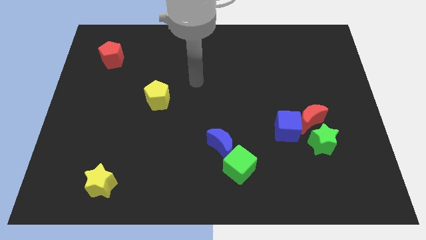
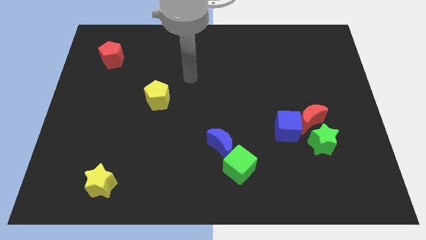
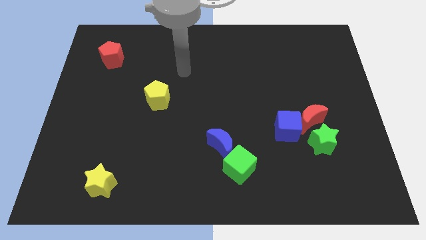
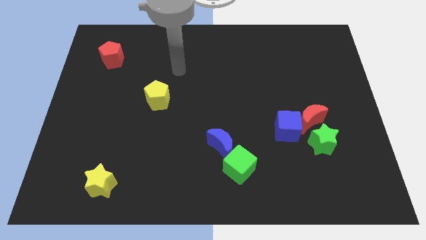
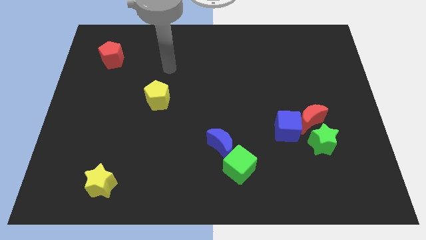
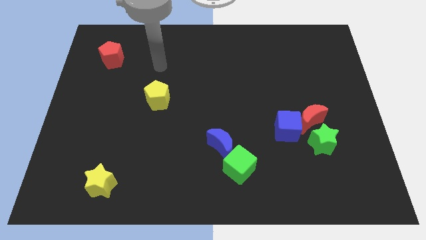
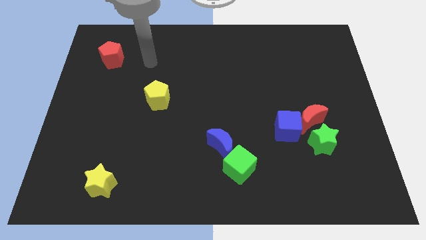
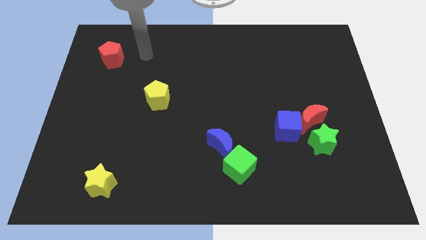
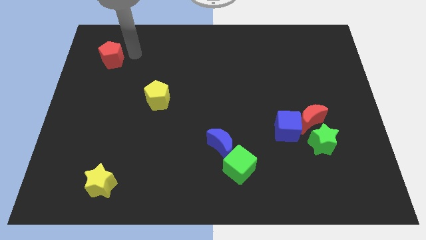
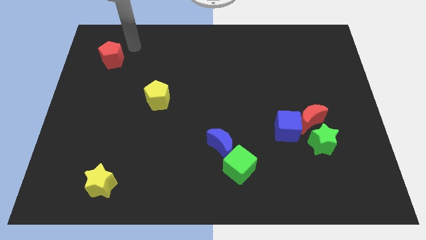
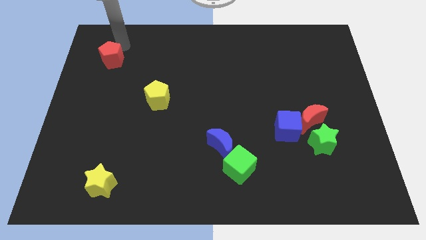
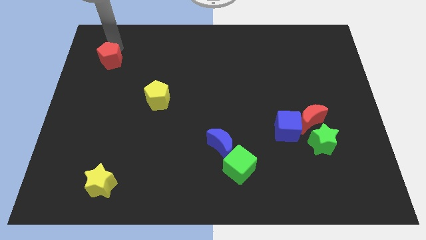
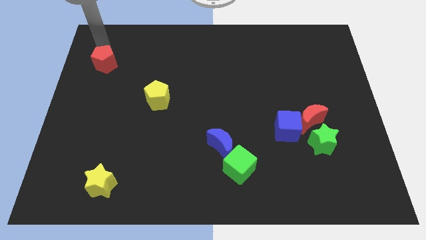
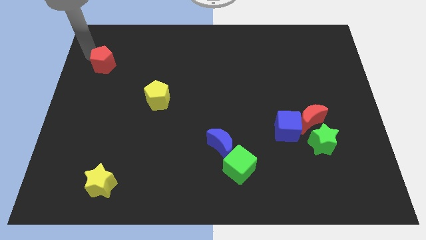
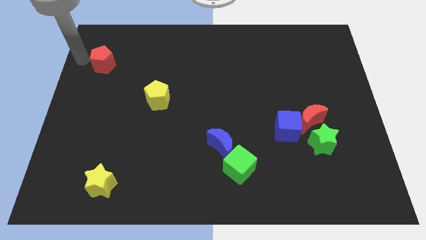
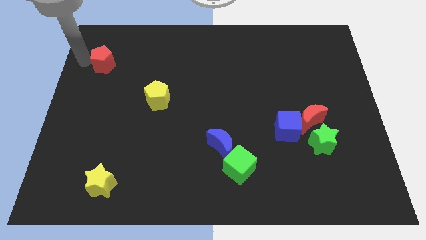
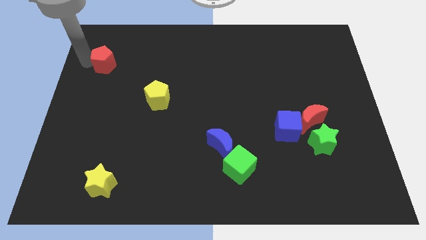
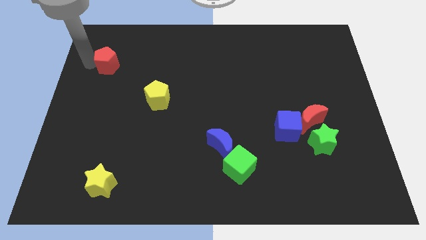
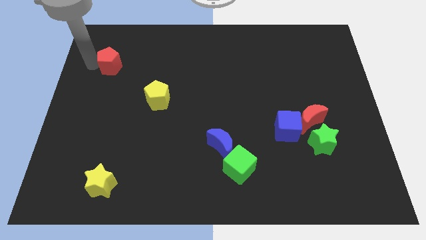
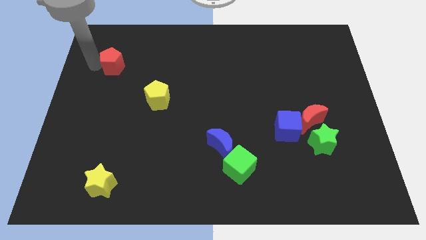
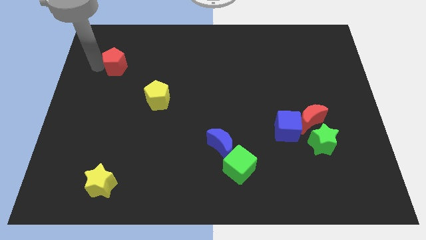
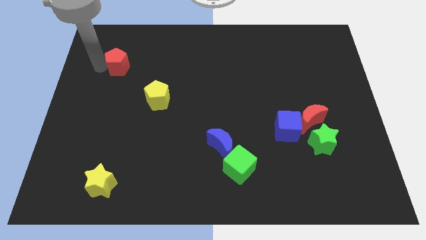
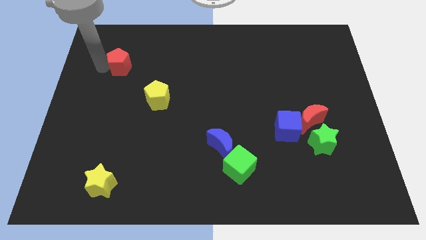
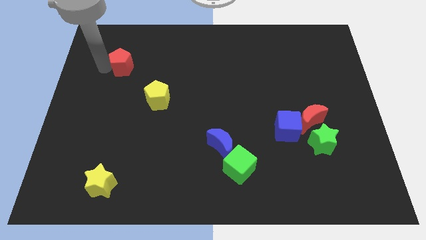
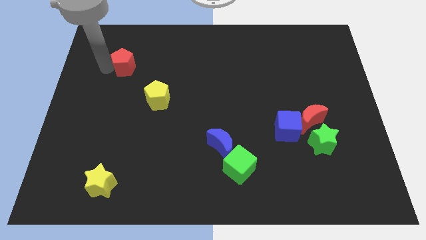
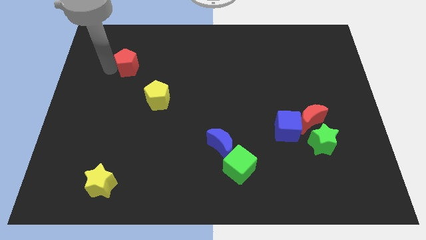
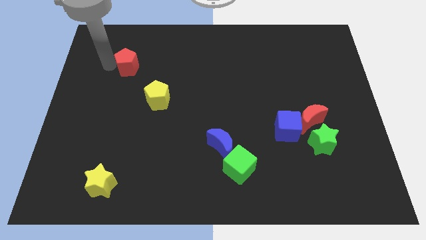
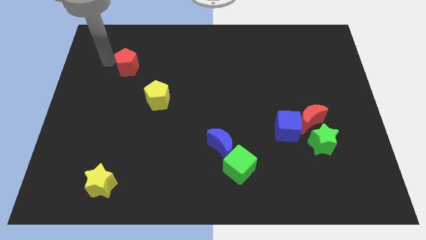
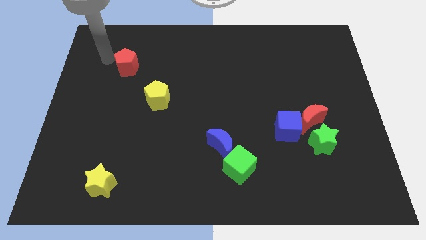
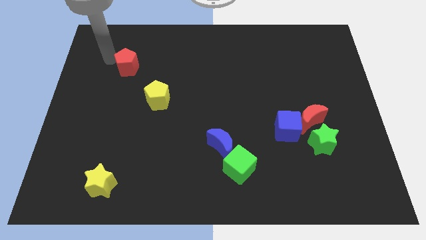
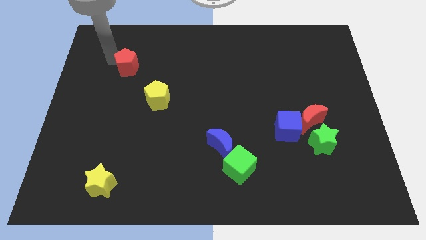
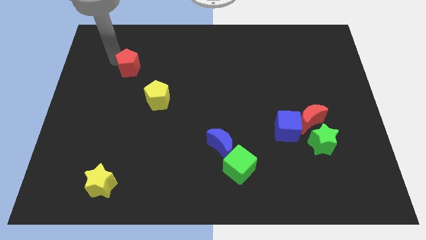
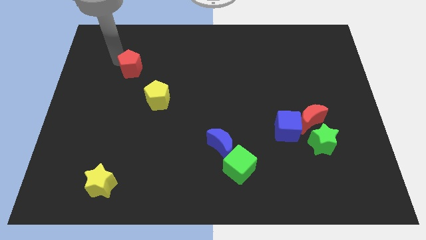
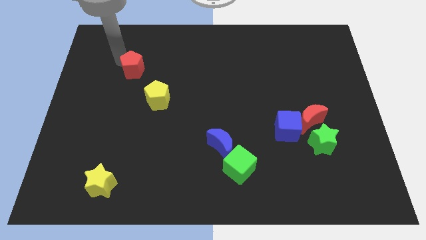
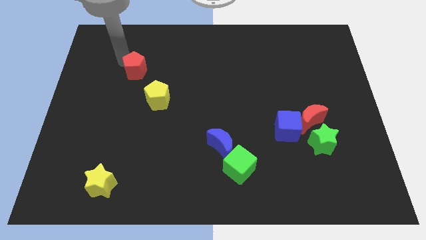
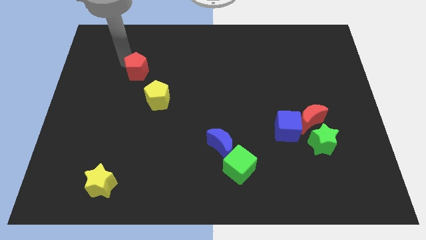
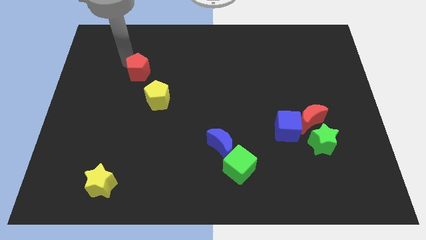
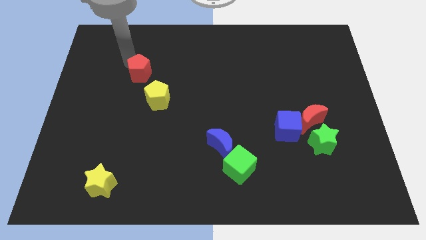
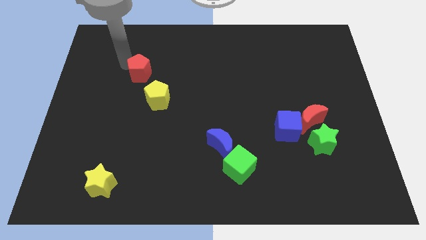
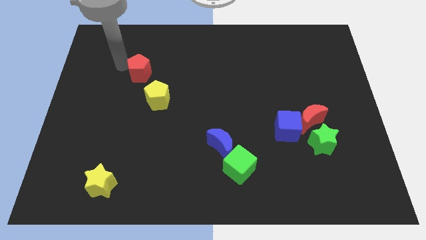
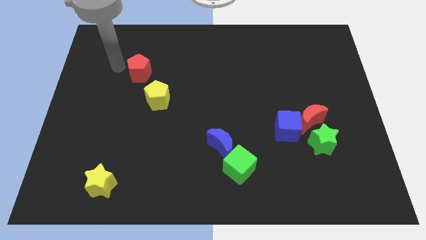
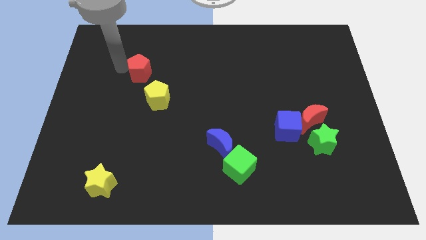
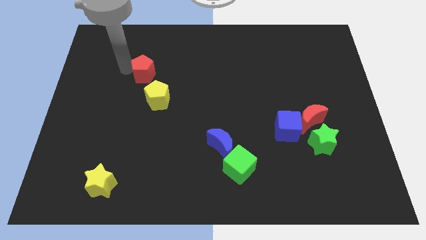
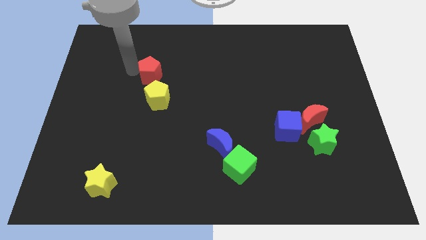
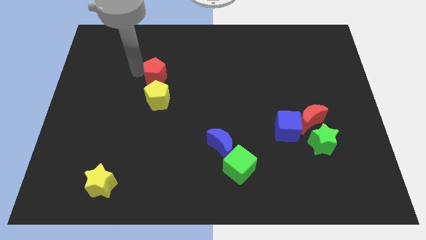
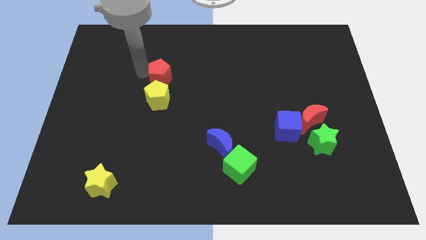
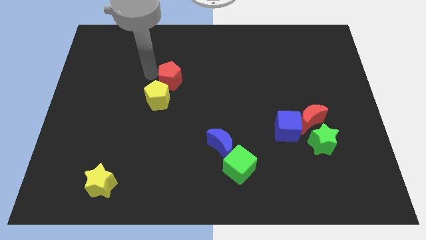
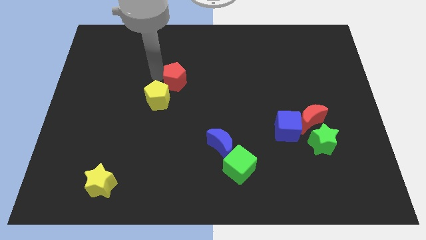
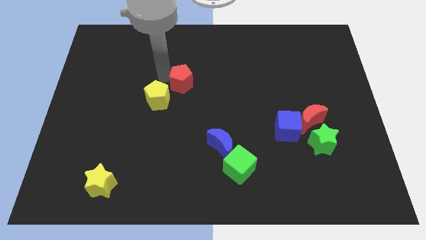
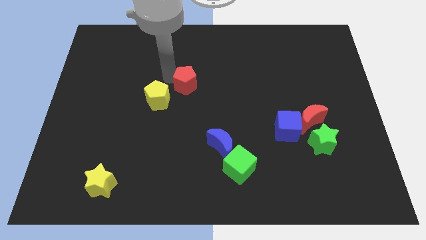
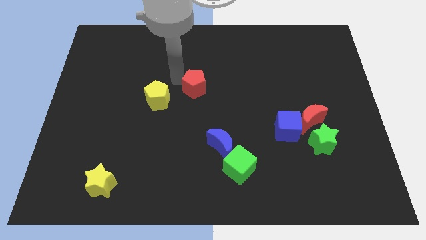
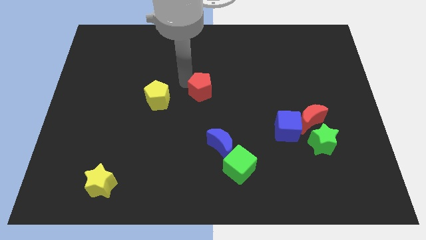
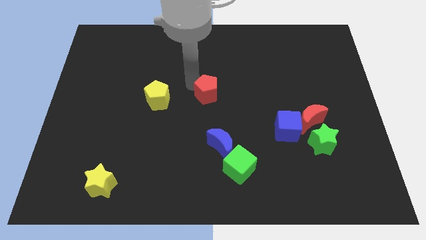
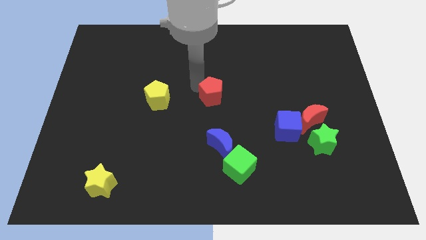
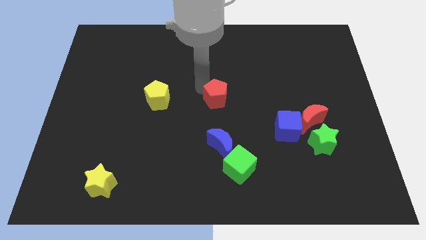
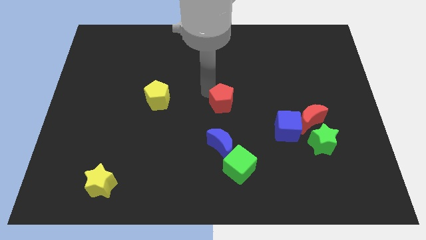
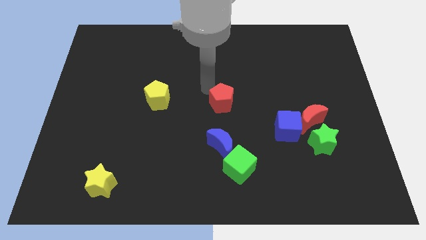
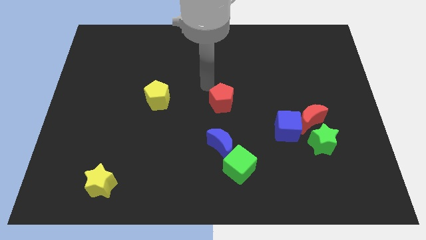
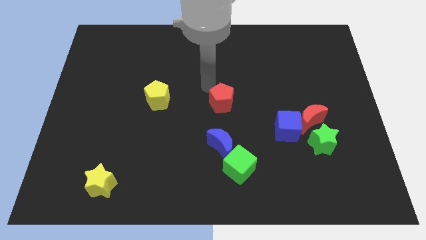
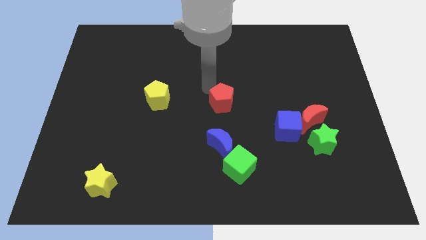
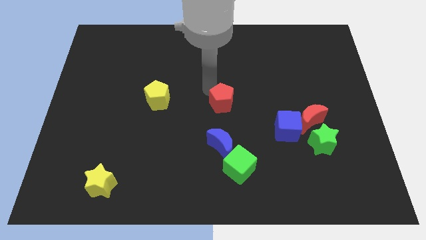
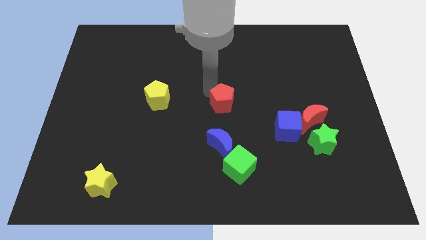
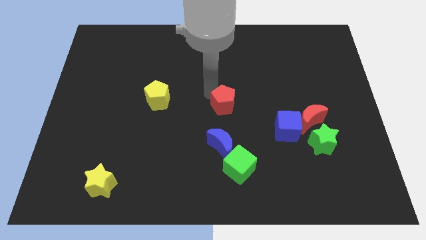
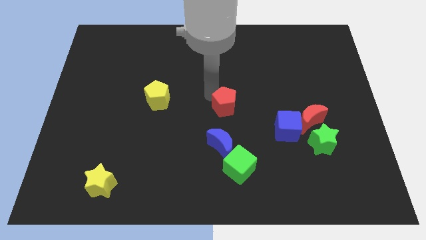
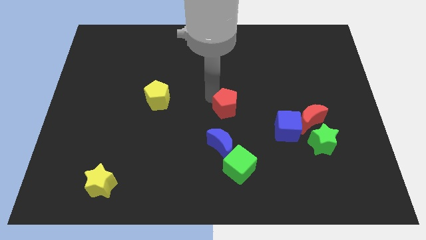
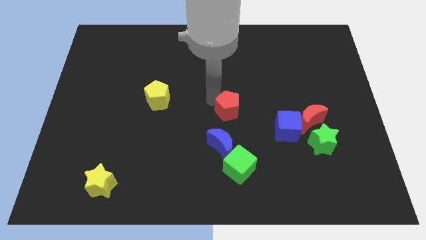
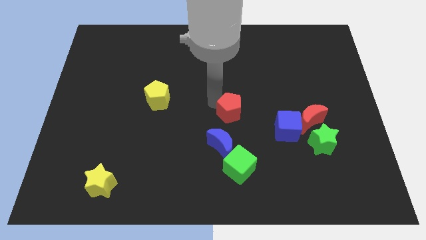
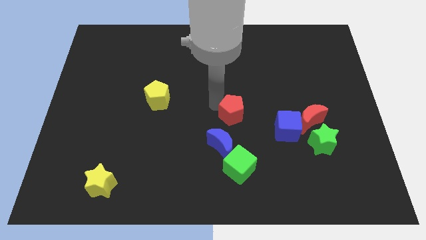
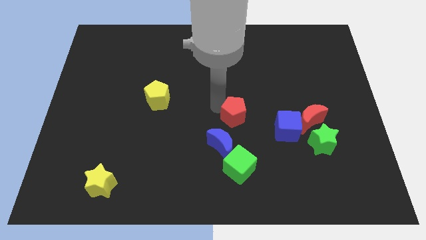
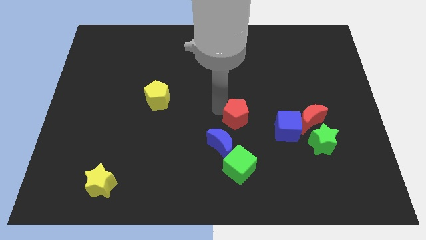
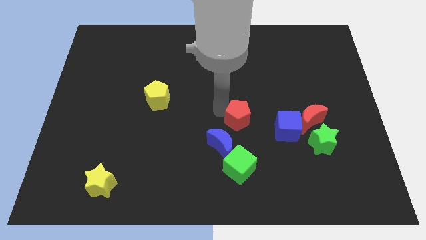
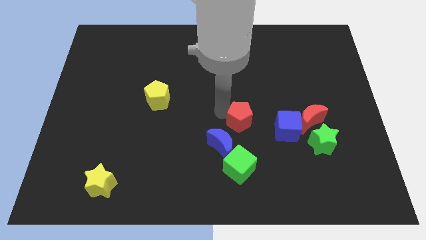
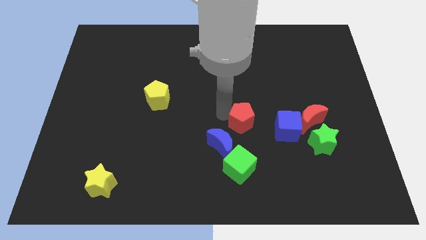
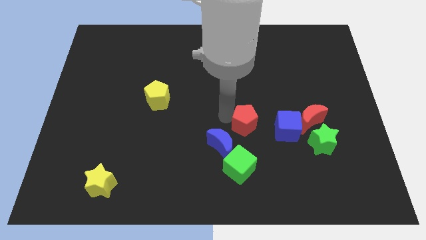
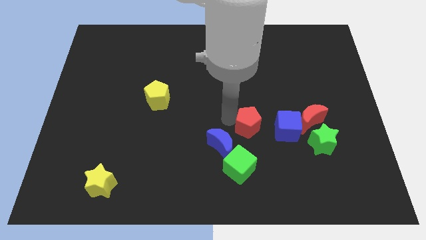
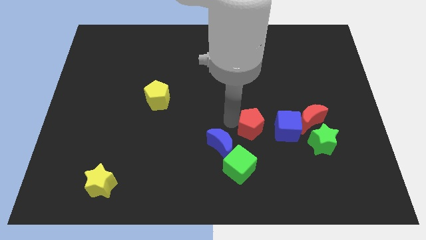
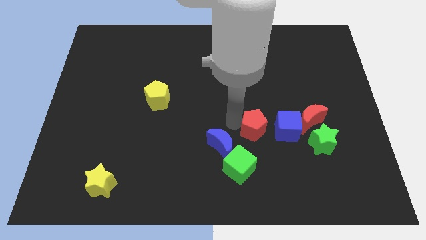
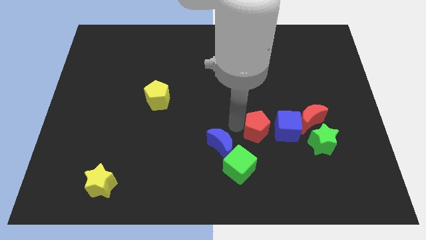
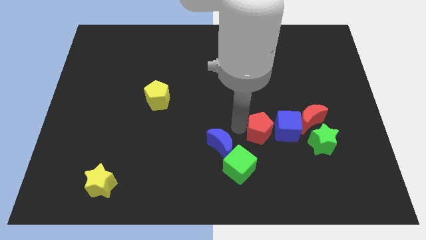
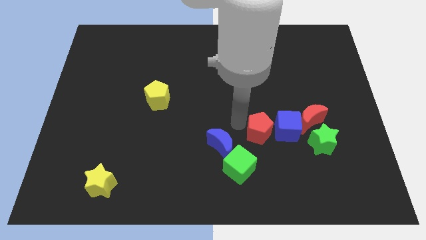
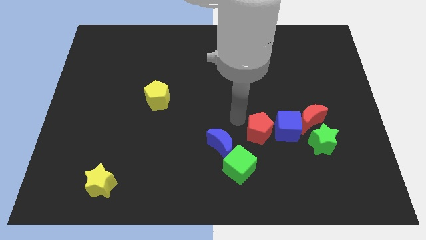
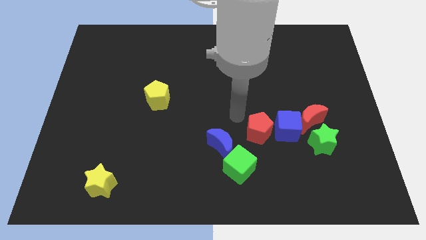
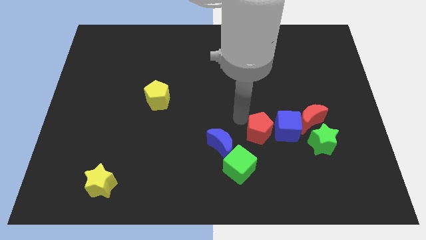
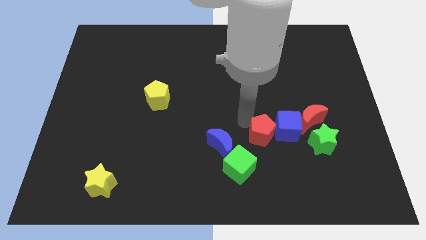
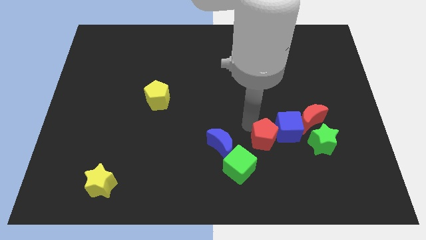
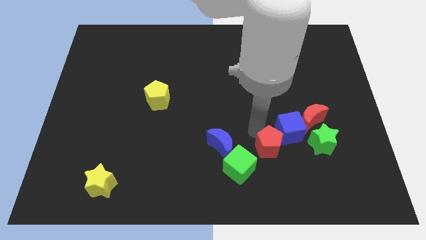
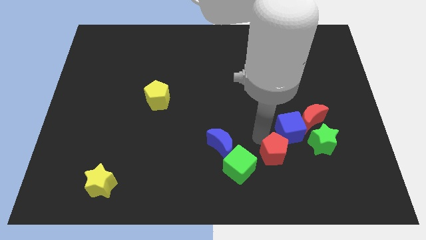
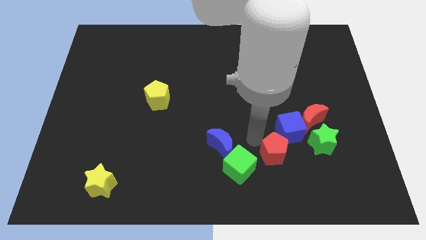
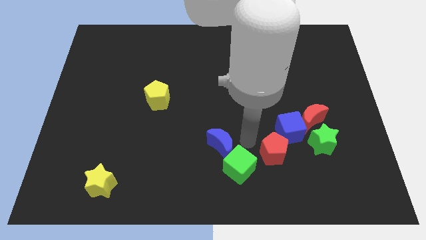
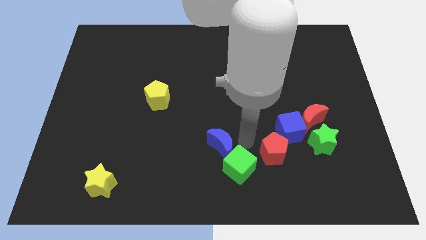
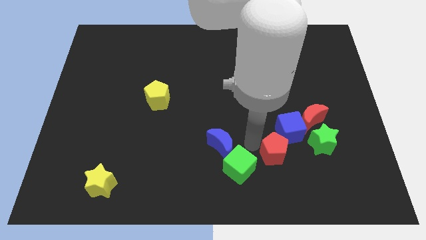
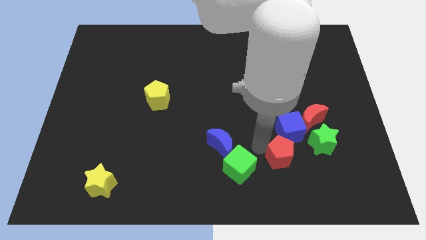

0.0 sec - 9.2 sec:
push the red pentagon to the bottom left side of the green star
